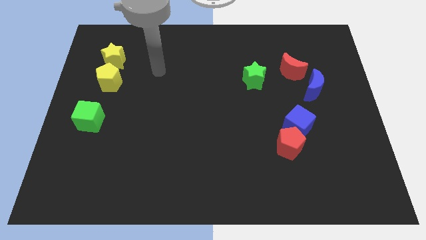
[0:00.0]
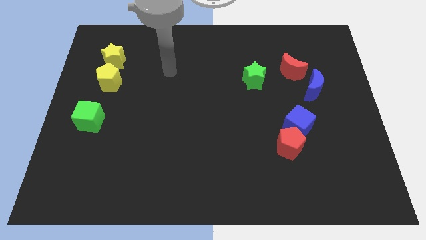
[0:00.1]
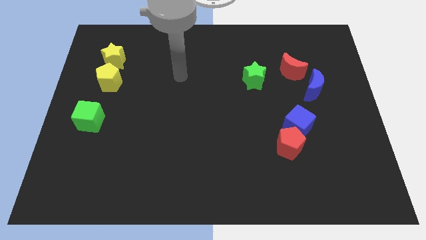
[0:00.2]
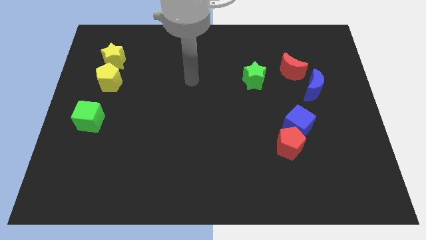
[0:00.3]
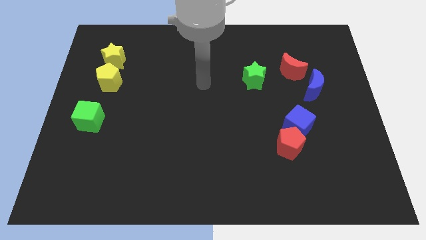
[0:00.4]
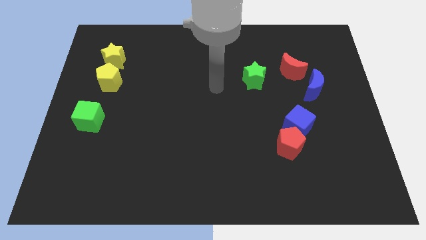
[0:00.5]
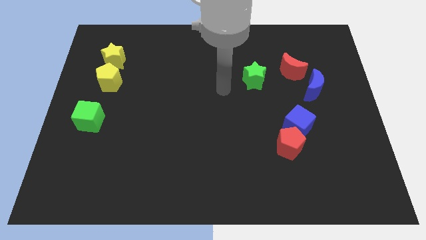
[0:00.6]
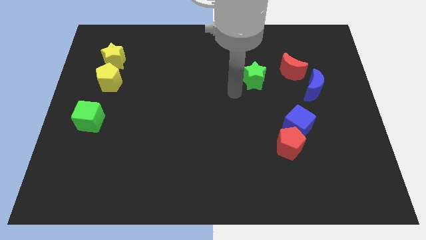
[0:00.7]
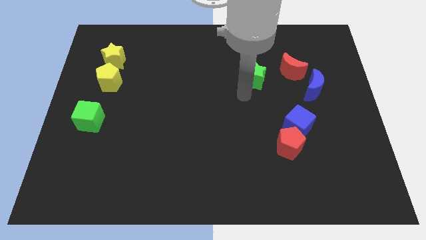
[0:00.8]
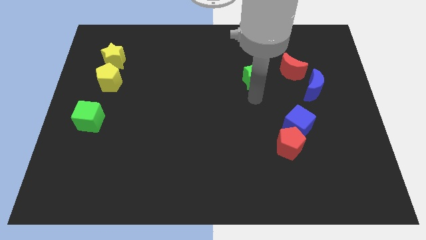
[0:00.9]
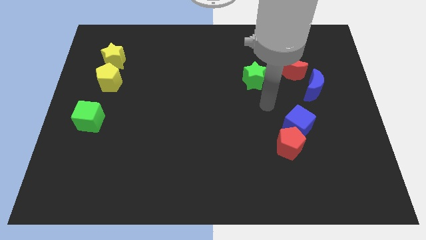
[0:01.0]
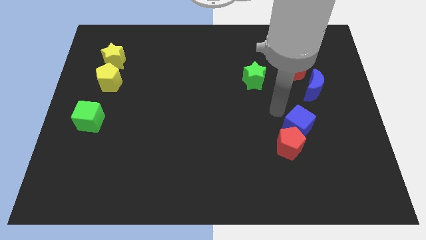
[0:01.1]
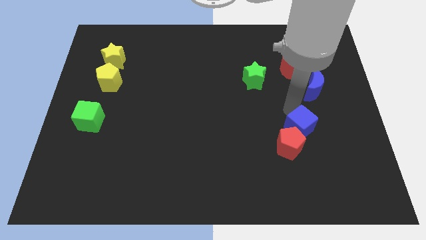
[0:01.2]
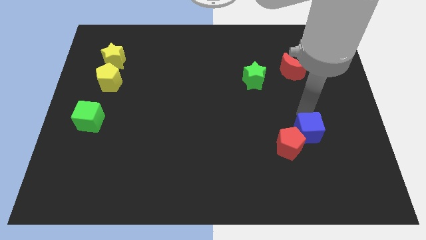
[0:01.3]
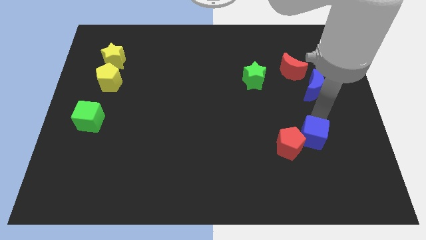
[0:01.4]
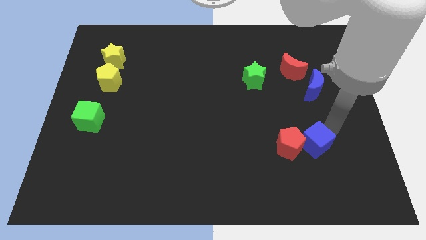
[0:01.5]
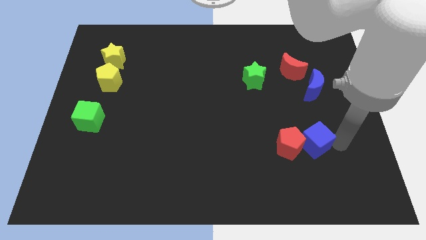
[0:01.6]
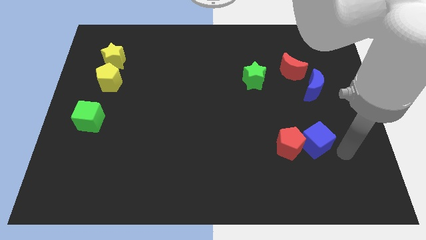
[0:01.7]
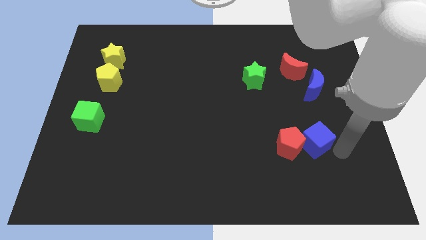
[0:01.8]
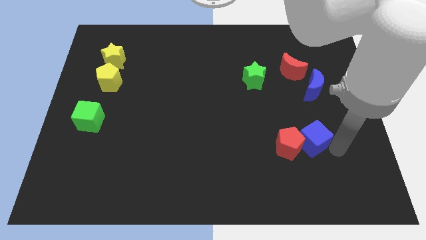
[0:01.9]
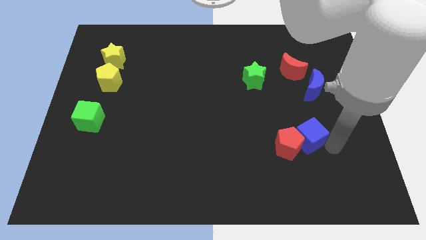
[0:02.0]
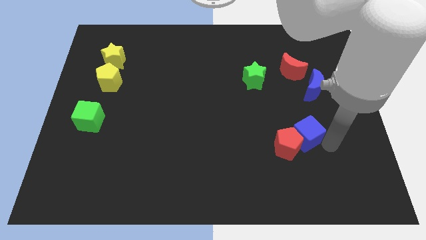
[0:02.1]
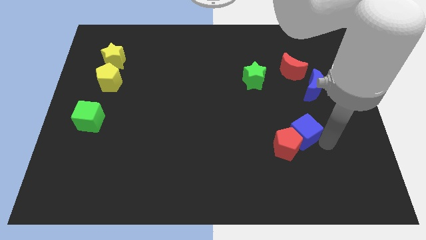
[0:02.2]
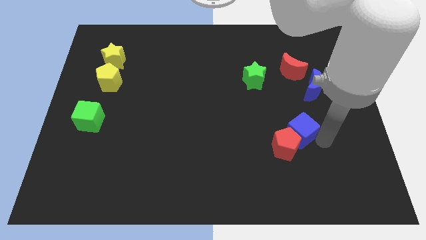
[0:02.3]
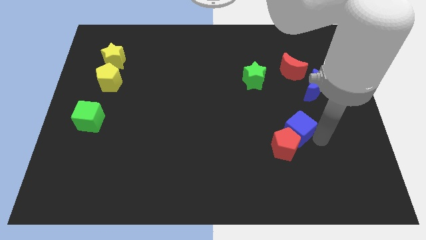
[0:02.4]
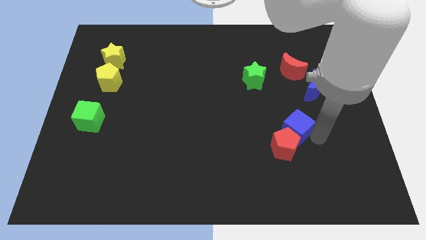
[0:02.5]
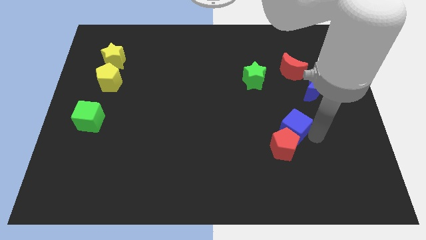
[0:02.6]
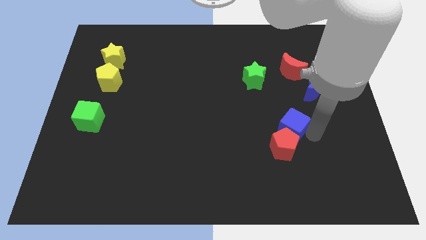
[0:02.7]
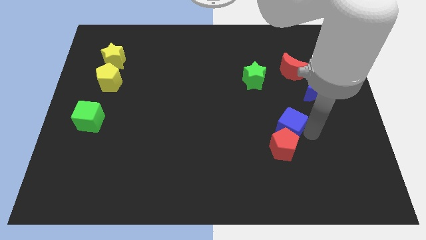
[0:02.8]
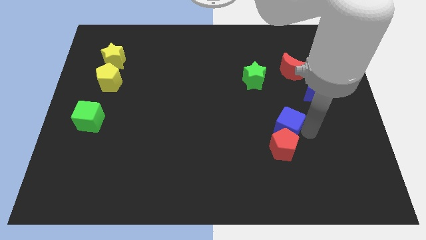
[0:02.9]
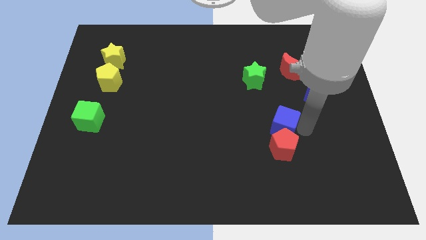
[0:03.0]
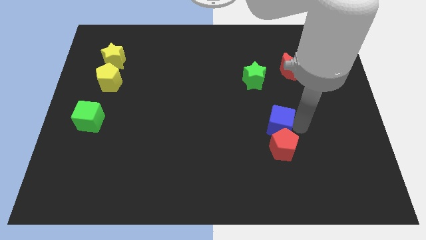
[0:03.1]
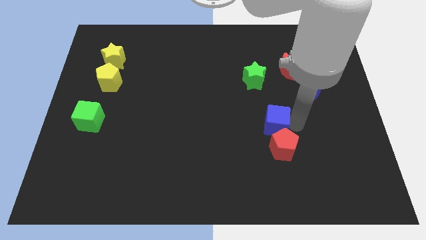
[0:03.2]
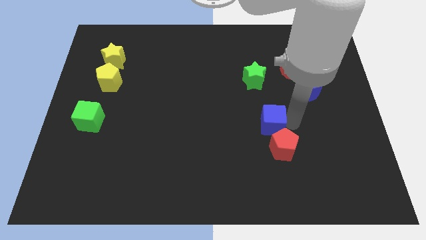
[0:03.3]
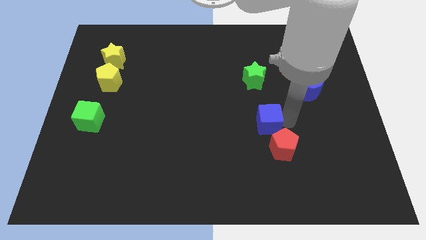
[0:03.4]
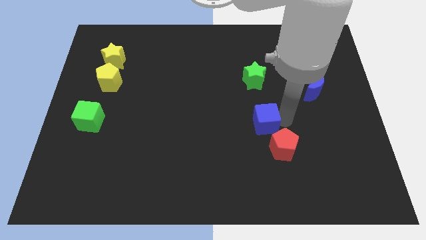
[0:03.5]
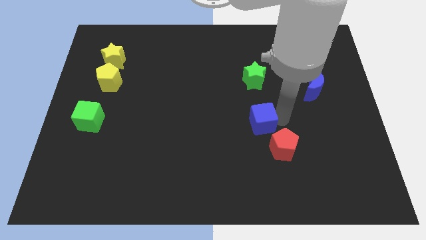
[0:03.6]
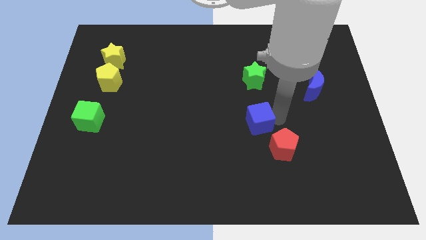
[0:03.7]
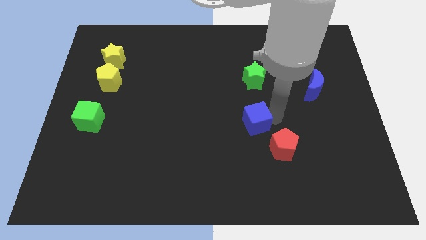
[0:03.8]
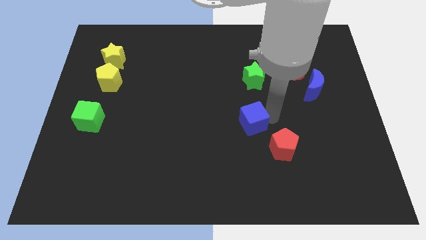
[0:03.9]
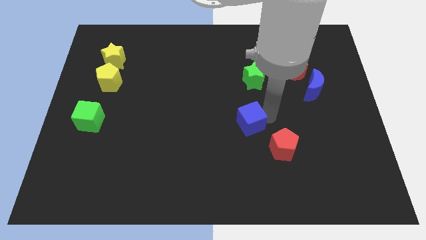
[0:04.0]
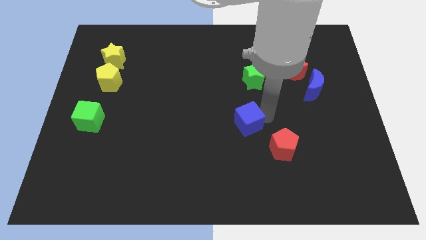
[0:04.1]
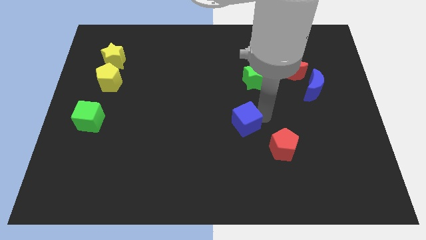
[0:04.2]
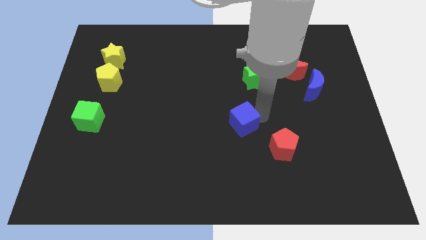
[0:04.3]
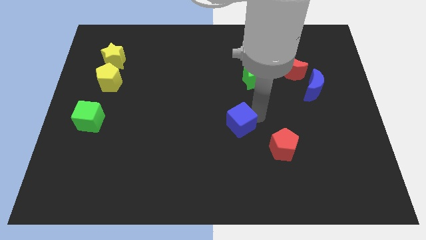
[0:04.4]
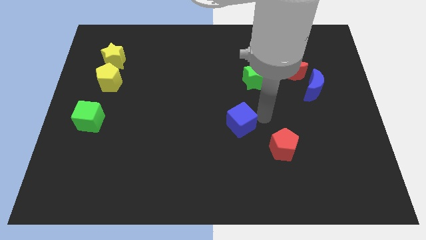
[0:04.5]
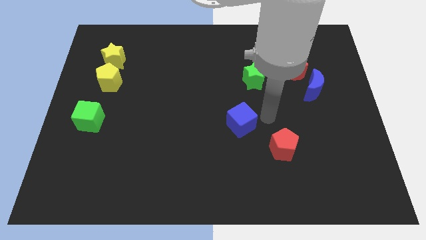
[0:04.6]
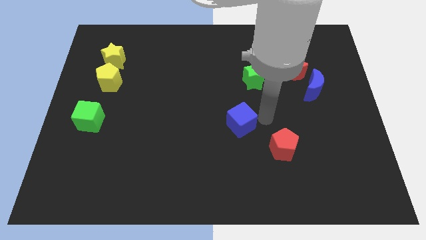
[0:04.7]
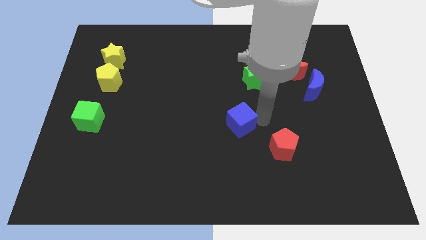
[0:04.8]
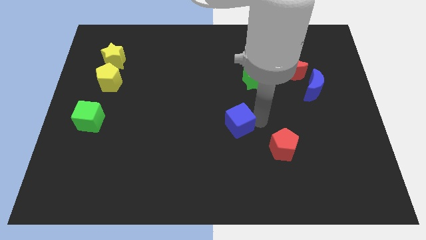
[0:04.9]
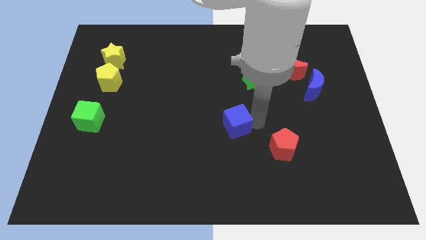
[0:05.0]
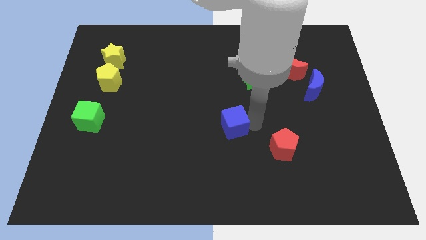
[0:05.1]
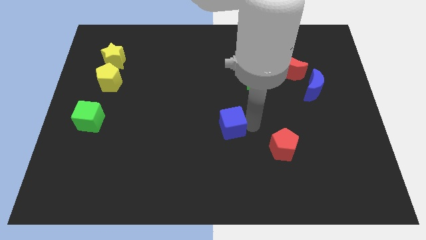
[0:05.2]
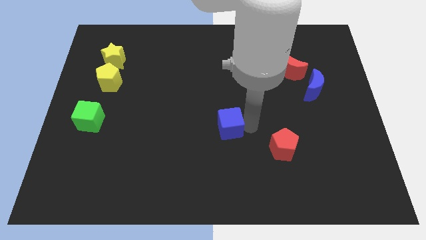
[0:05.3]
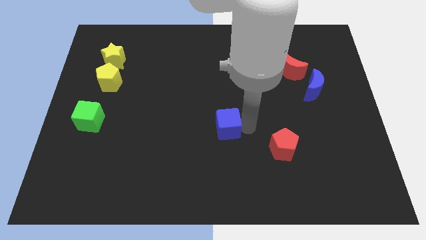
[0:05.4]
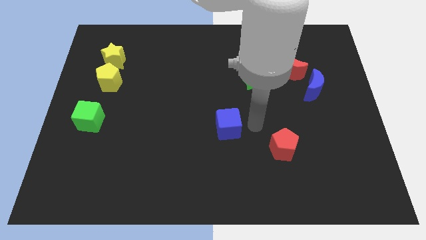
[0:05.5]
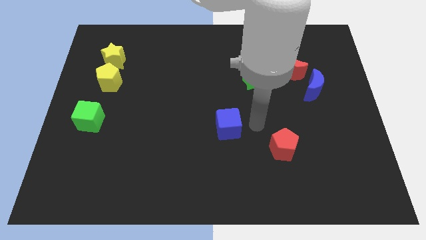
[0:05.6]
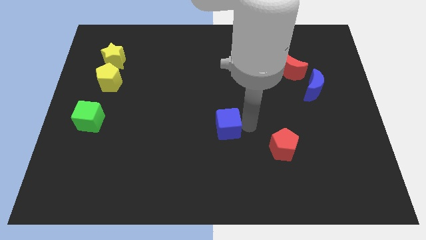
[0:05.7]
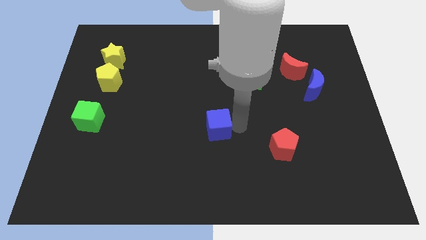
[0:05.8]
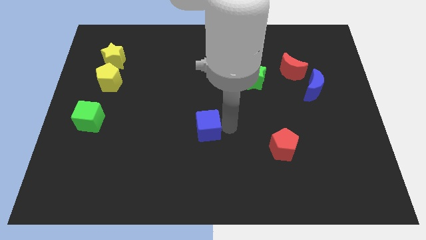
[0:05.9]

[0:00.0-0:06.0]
slide the blue cube to the left

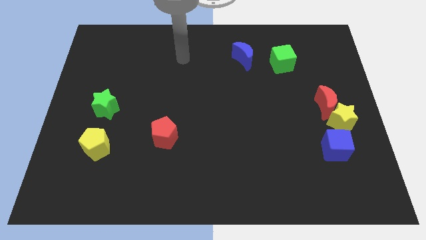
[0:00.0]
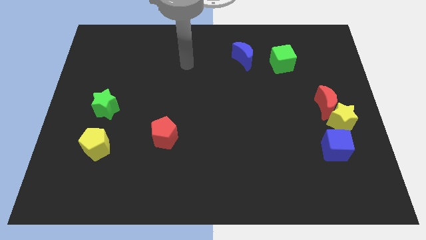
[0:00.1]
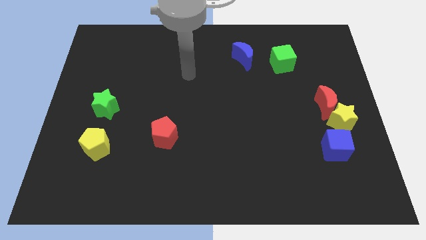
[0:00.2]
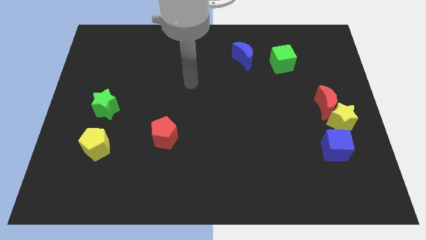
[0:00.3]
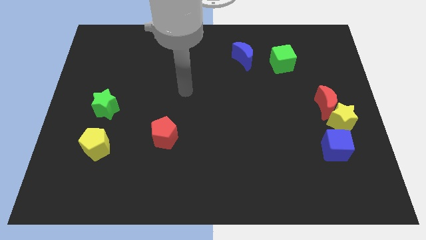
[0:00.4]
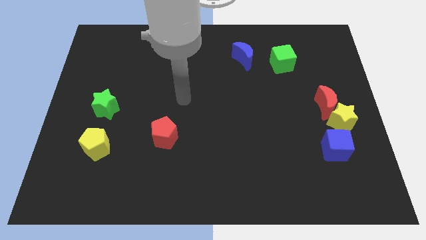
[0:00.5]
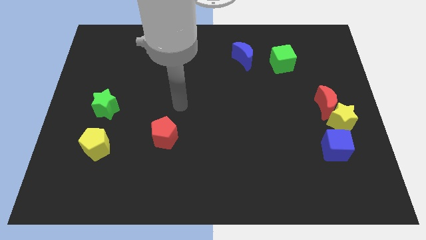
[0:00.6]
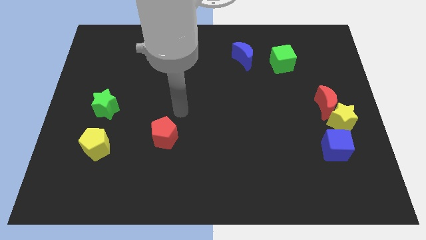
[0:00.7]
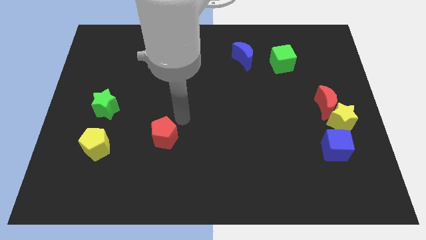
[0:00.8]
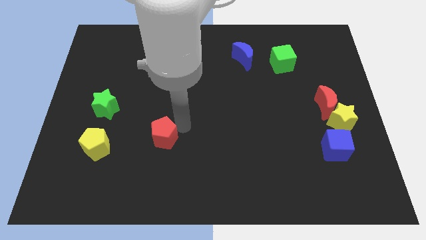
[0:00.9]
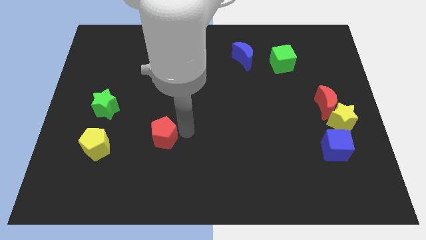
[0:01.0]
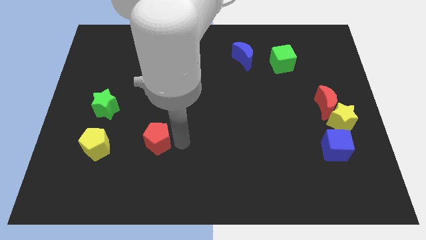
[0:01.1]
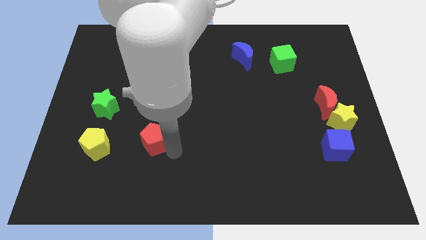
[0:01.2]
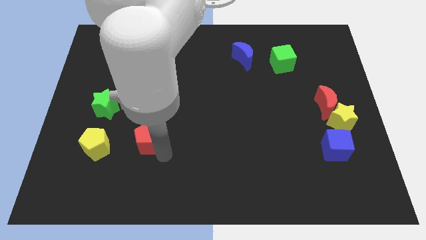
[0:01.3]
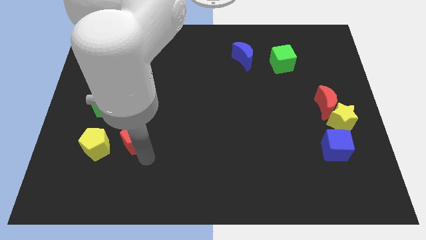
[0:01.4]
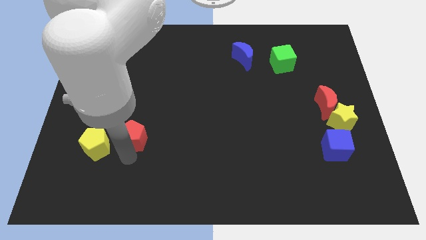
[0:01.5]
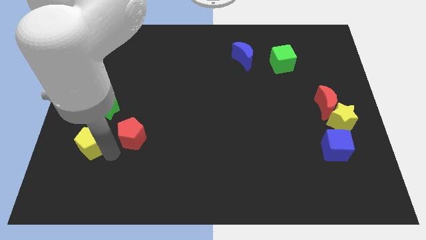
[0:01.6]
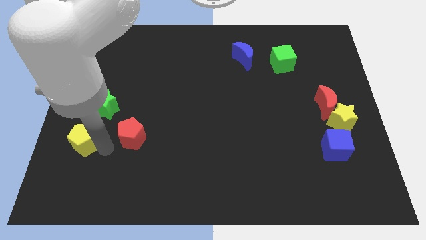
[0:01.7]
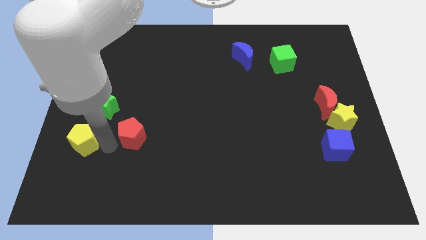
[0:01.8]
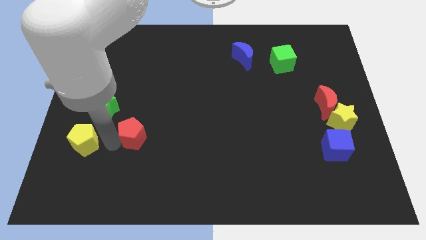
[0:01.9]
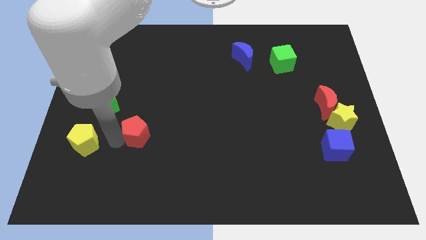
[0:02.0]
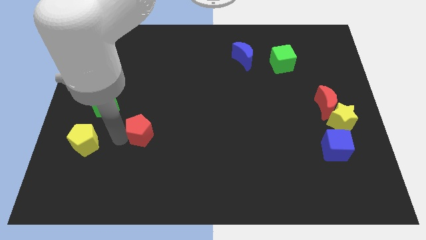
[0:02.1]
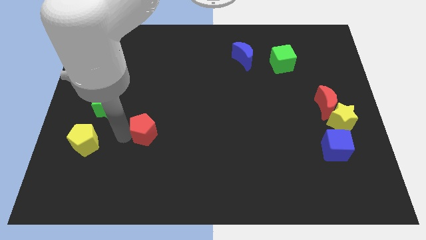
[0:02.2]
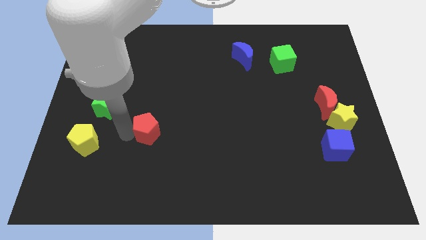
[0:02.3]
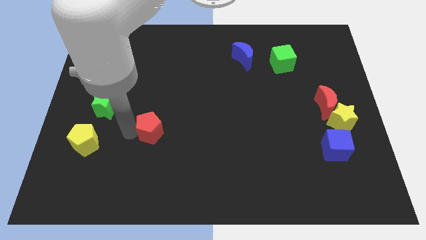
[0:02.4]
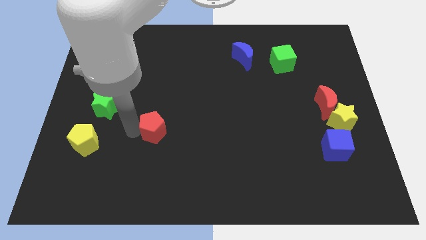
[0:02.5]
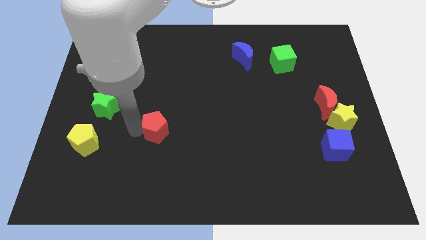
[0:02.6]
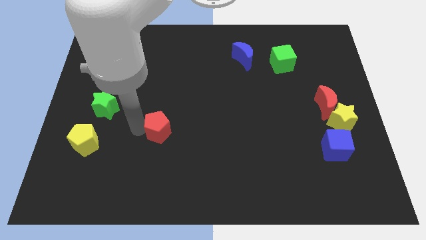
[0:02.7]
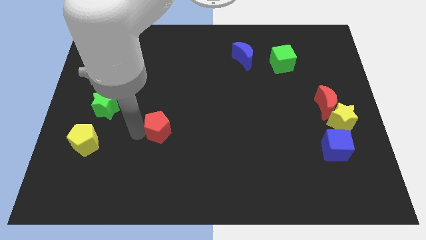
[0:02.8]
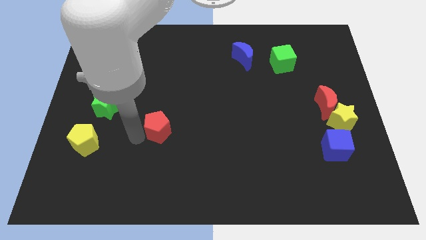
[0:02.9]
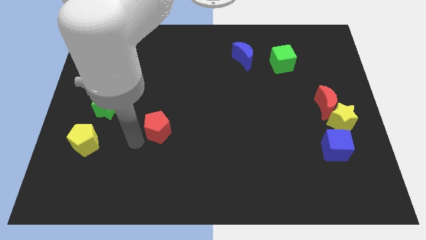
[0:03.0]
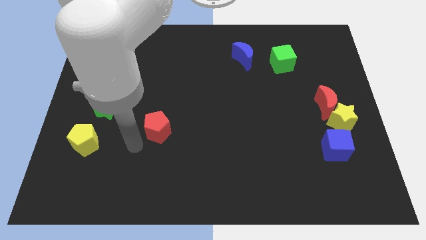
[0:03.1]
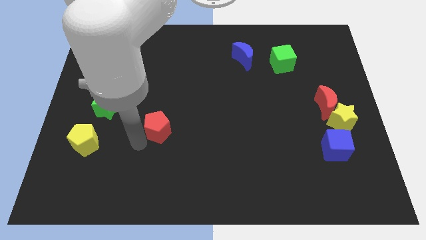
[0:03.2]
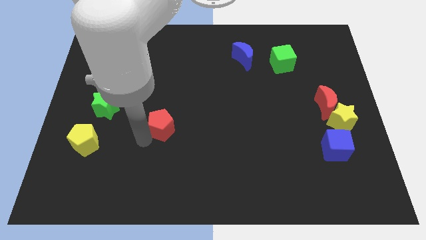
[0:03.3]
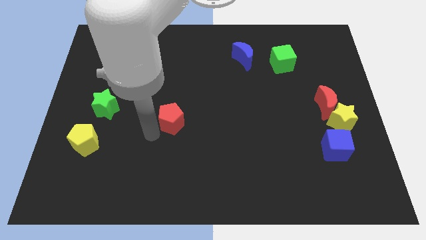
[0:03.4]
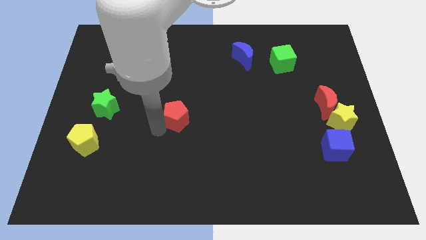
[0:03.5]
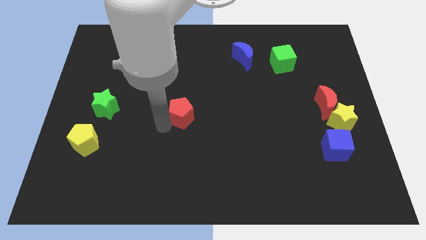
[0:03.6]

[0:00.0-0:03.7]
slightly push the red pentagon diagonally upwards and right
